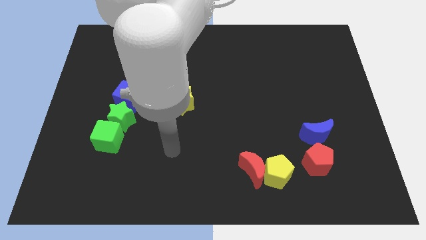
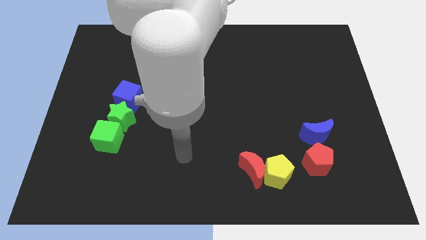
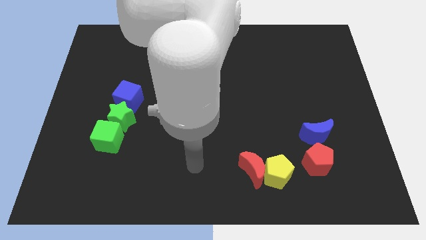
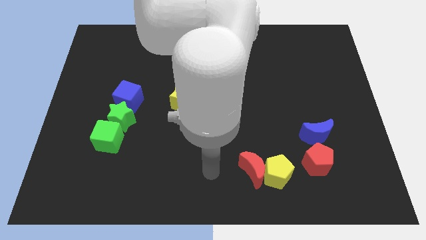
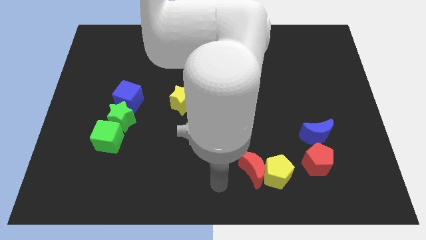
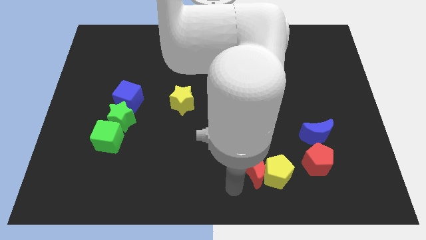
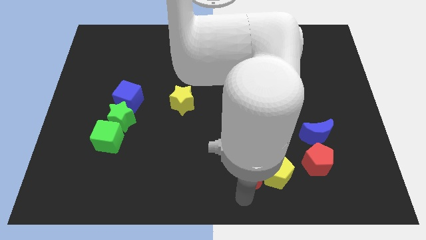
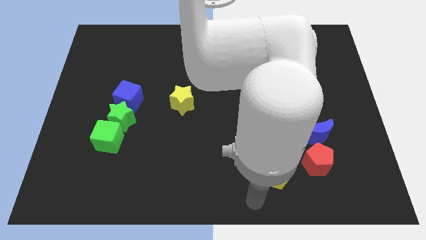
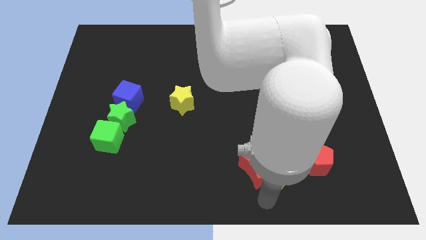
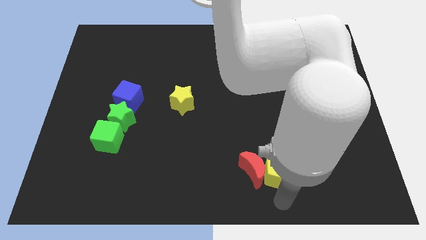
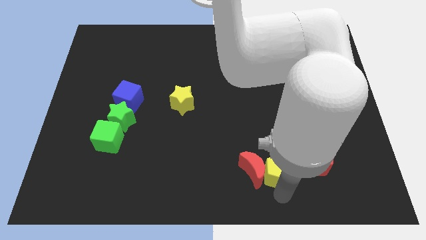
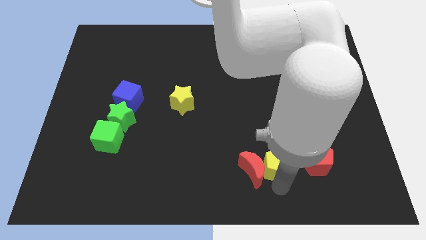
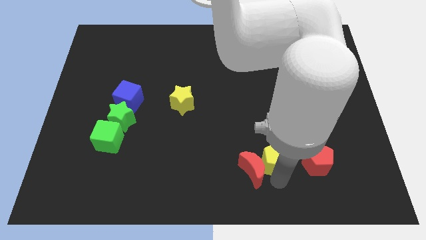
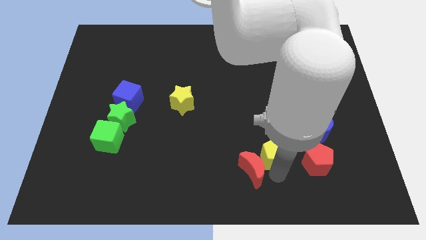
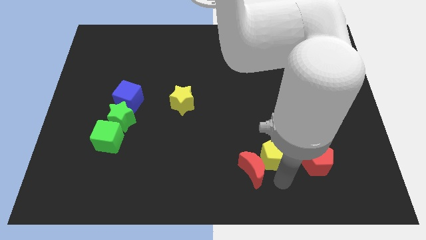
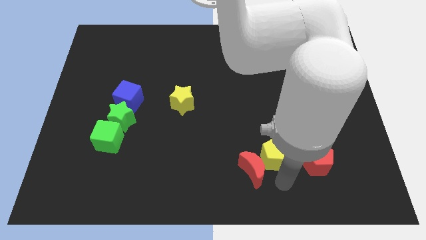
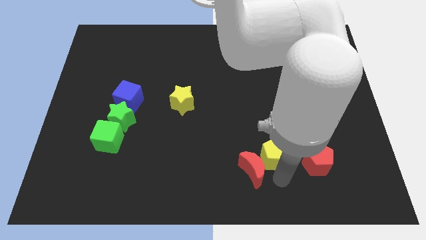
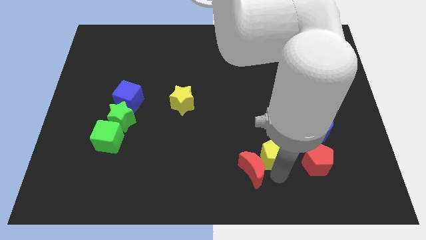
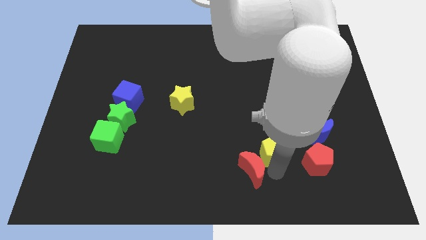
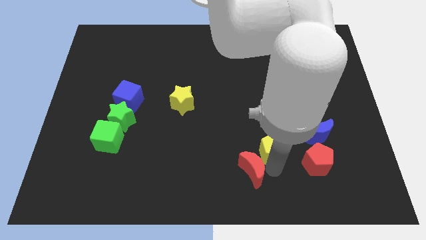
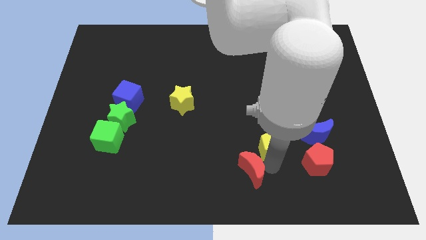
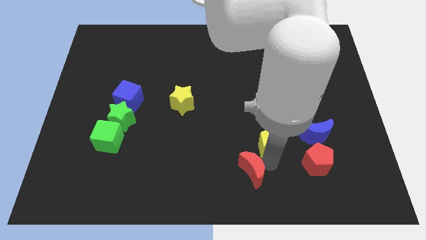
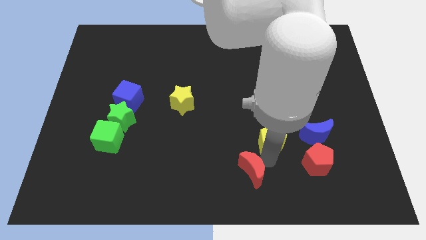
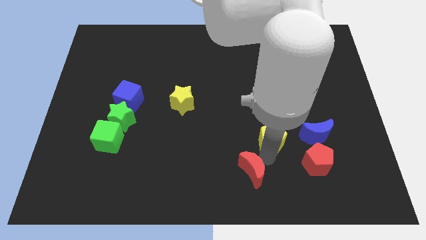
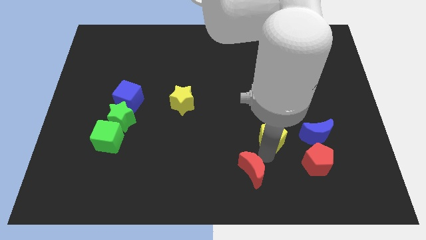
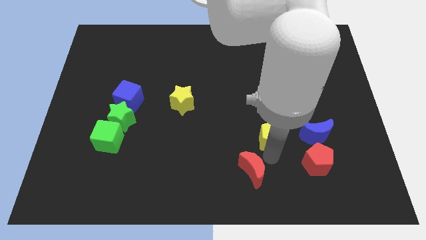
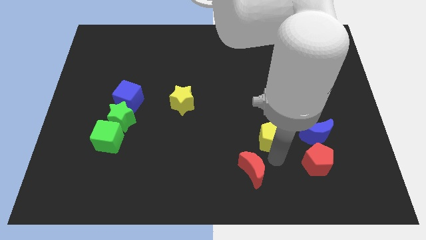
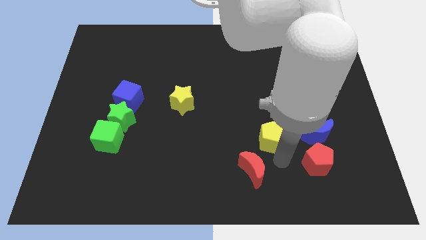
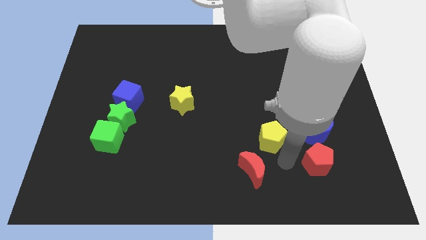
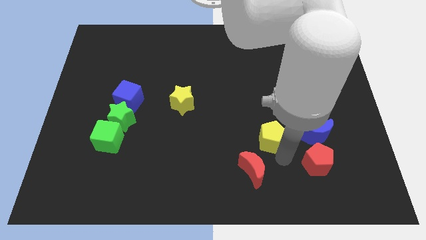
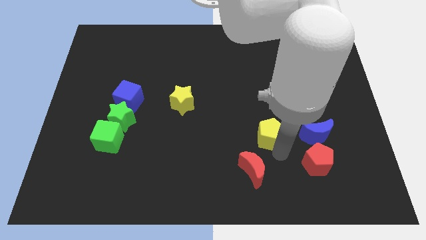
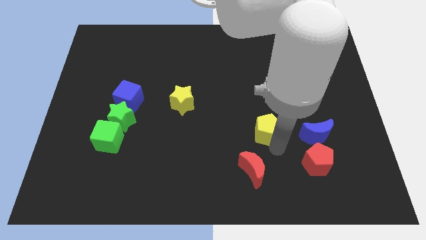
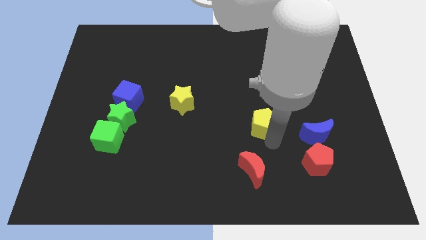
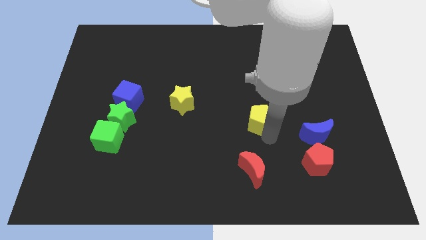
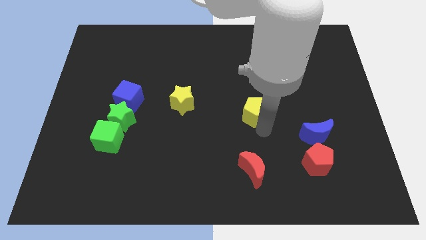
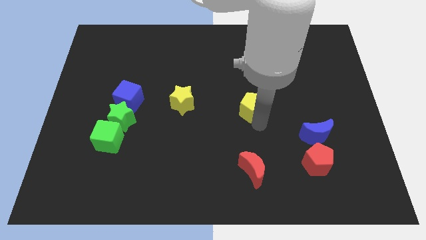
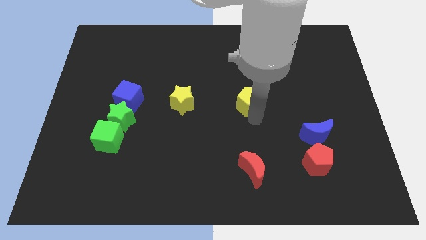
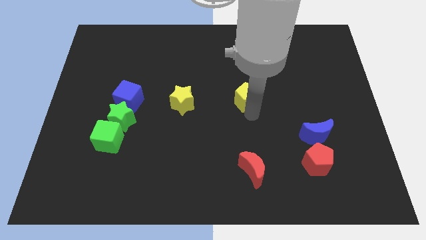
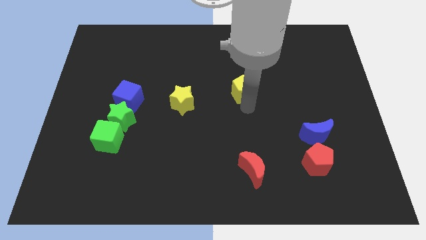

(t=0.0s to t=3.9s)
push the yellow pentagon up

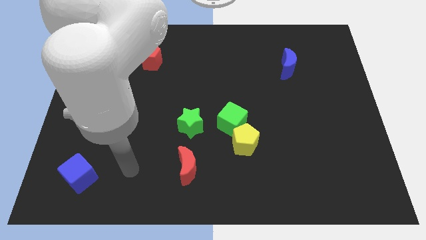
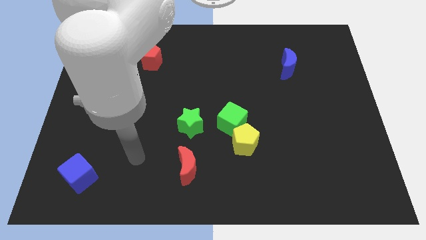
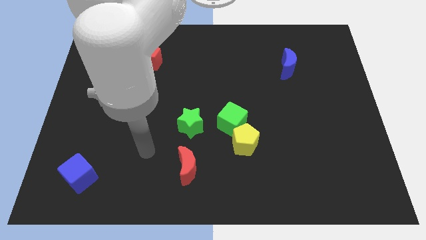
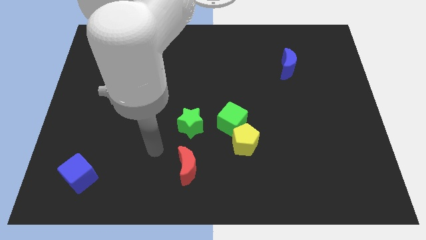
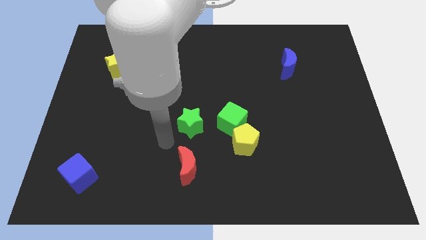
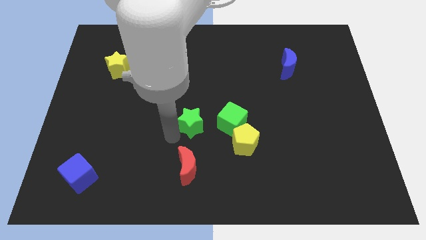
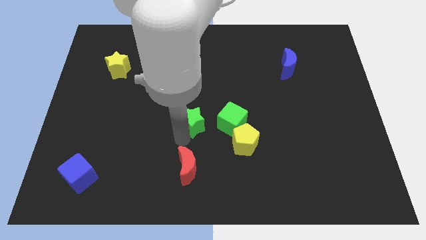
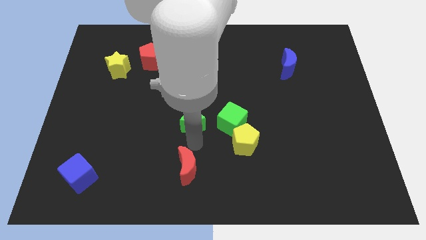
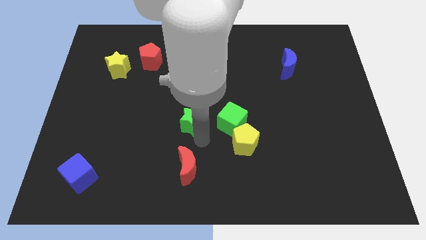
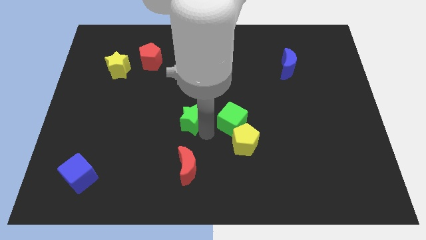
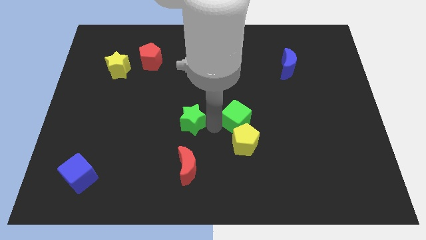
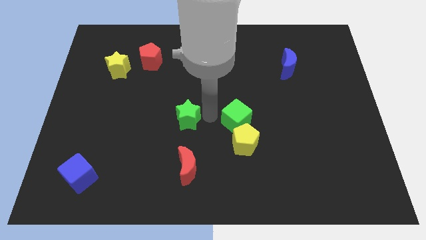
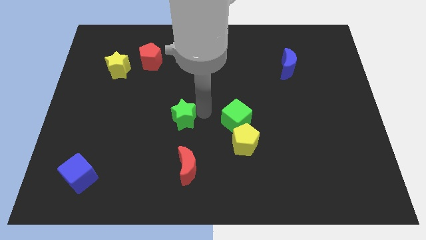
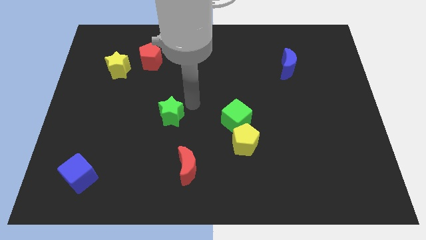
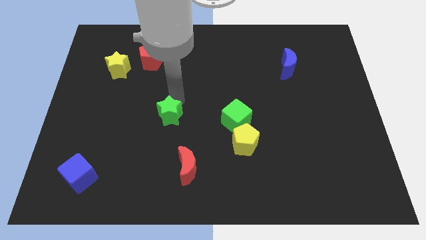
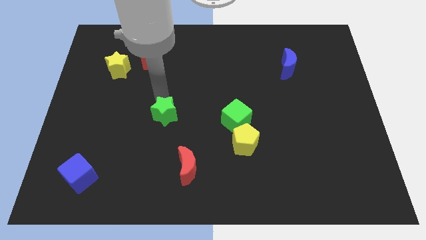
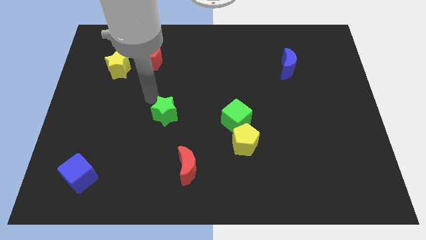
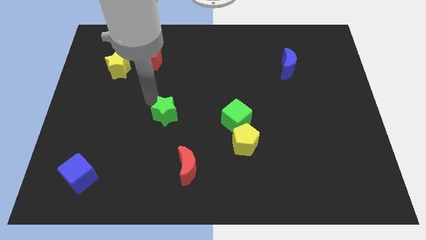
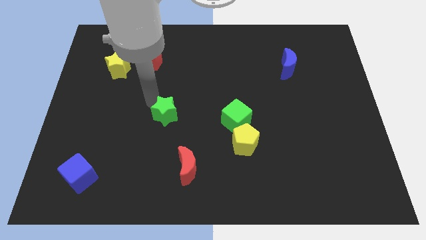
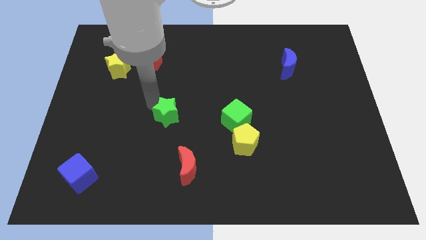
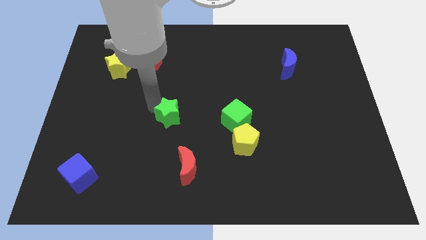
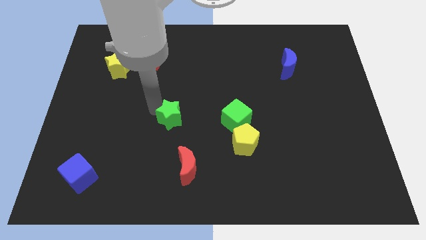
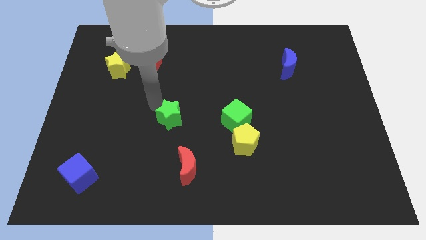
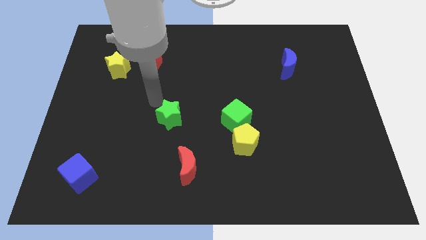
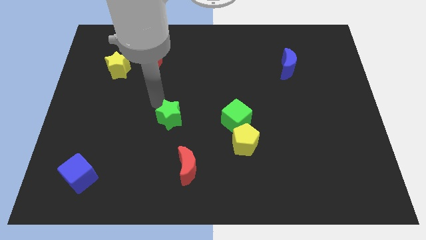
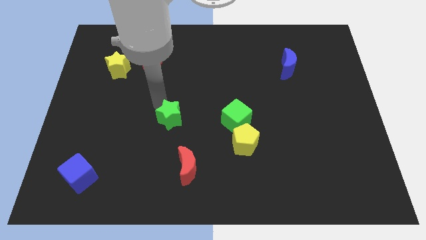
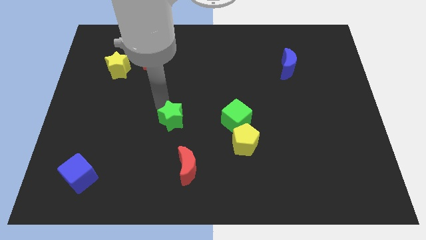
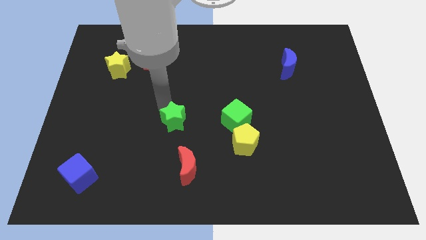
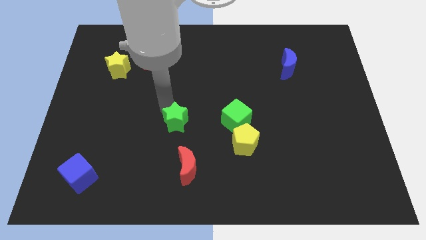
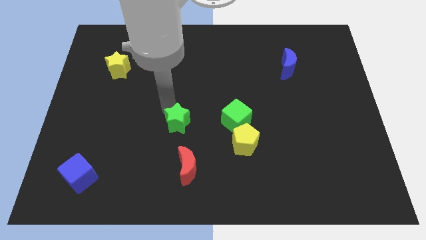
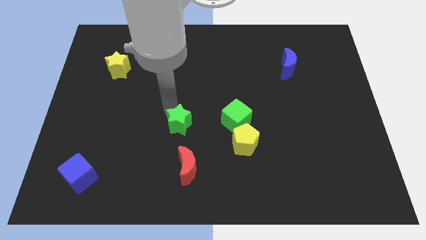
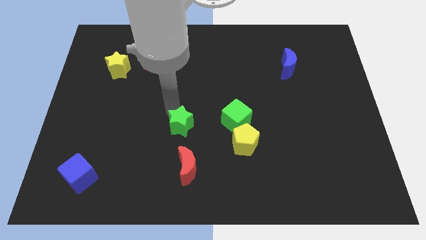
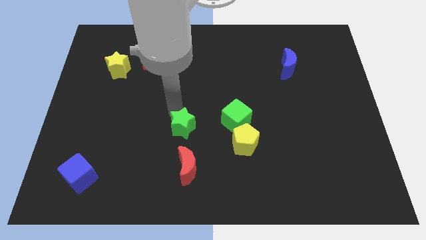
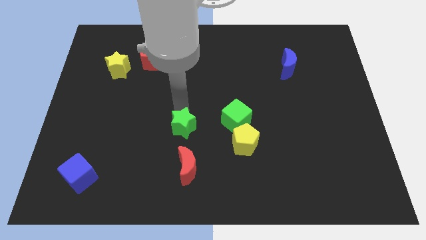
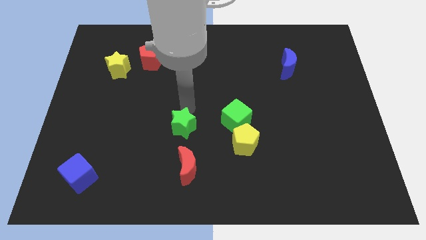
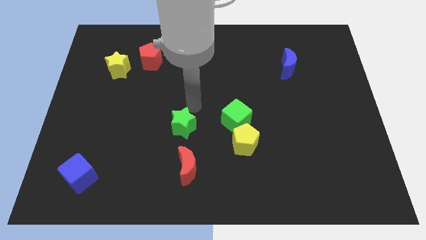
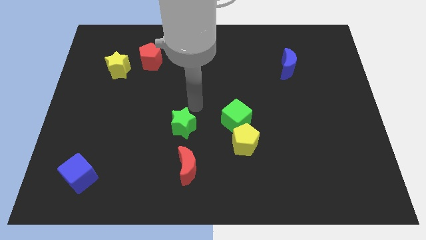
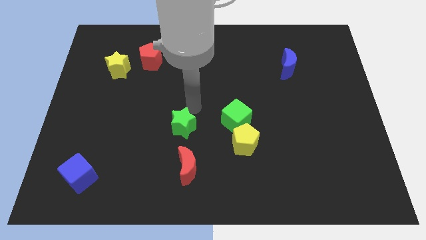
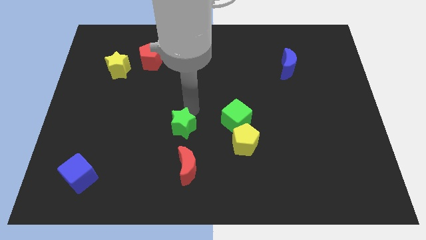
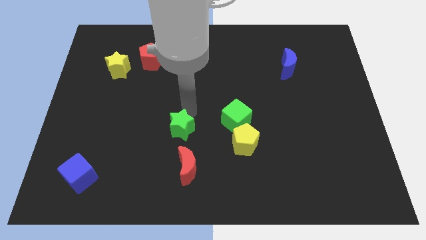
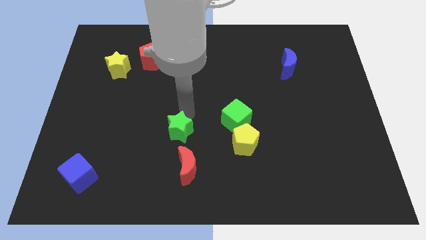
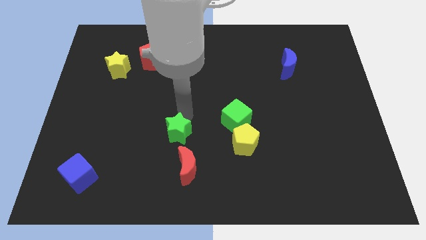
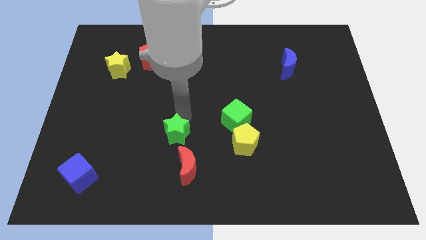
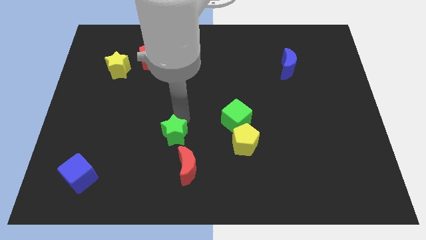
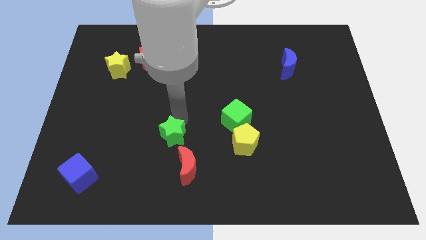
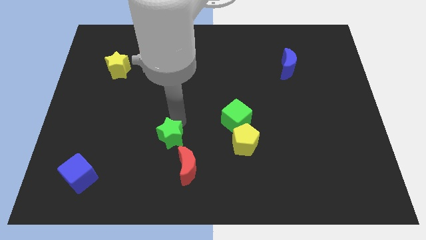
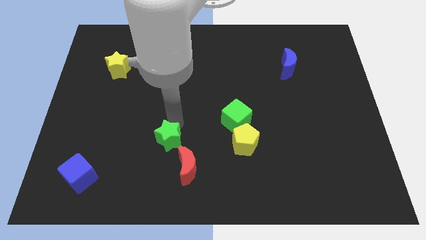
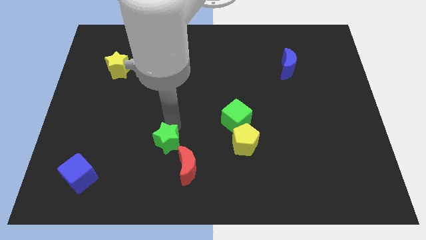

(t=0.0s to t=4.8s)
slide the green star downwards and to the left diagonally a little bit
